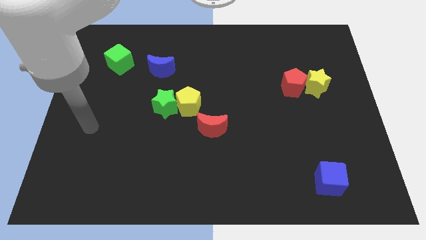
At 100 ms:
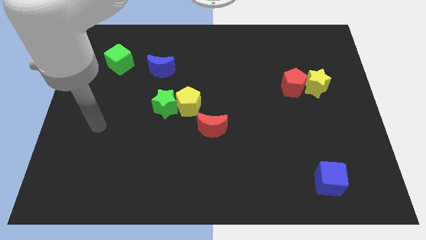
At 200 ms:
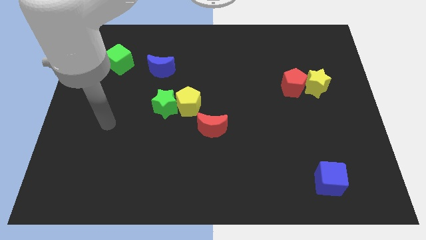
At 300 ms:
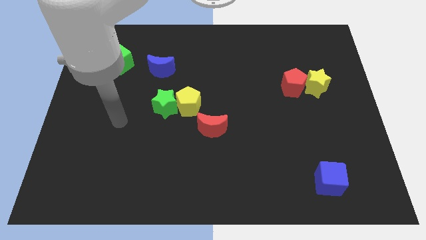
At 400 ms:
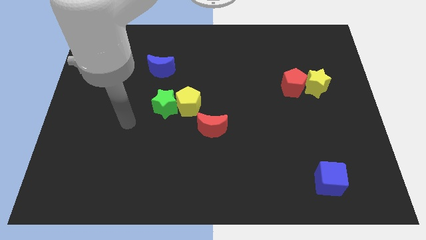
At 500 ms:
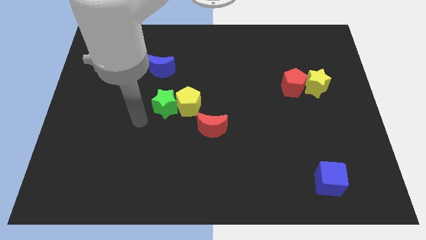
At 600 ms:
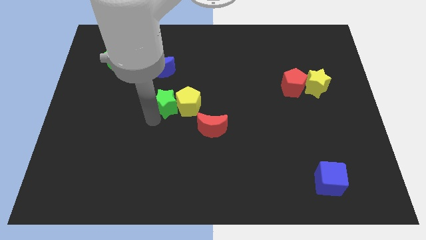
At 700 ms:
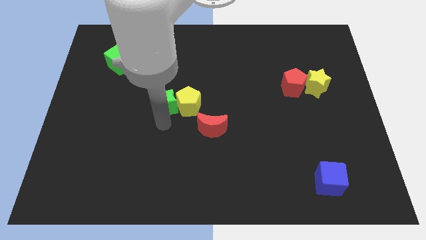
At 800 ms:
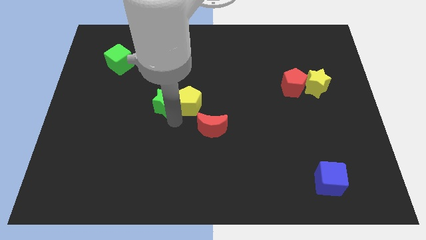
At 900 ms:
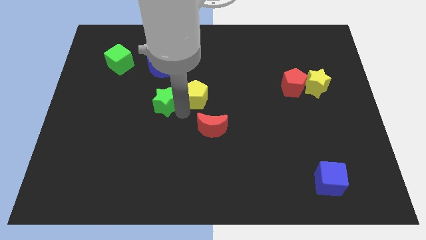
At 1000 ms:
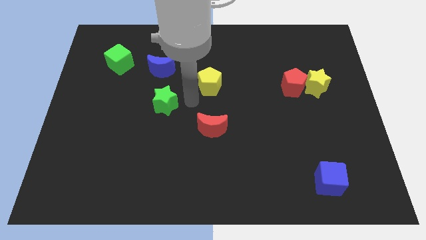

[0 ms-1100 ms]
separate the green star from the yellow pentagon

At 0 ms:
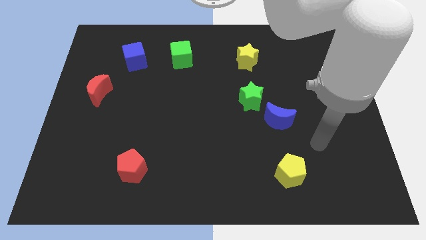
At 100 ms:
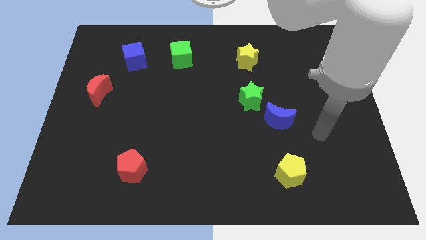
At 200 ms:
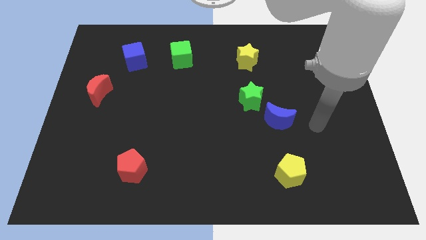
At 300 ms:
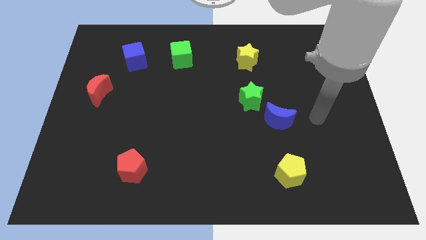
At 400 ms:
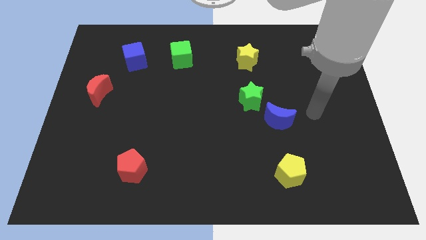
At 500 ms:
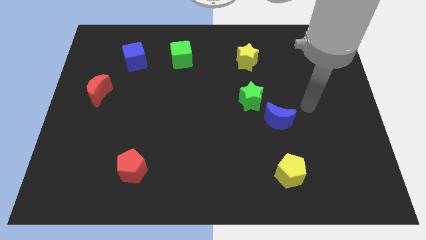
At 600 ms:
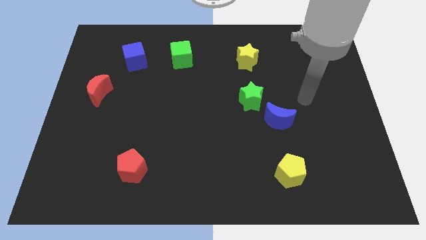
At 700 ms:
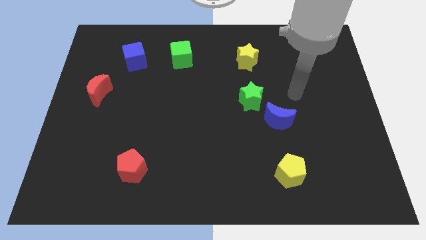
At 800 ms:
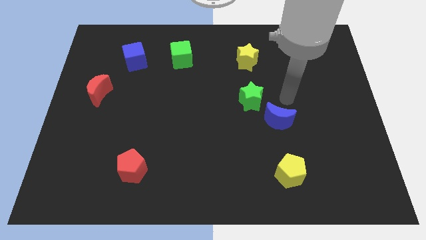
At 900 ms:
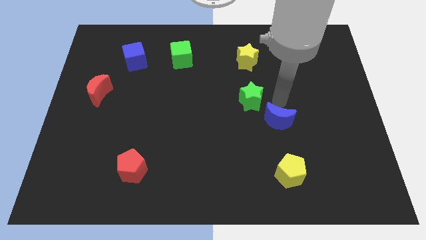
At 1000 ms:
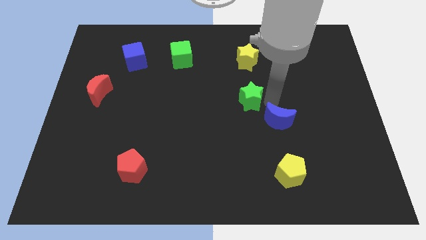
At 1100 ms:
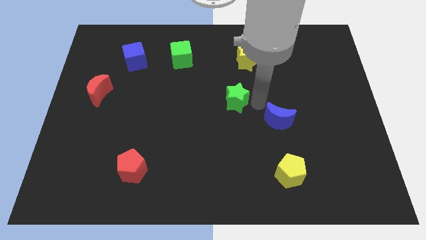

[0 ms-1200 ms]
separate the blue moon from the green star

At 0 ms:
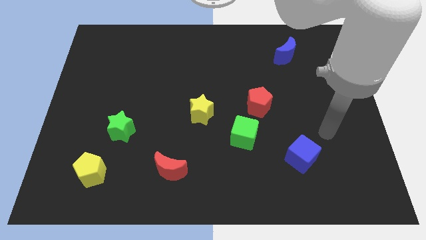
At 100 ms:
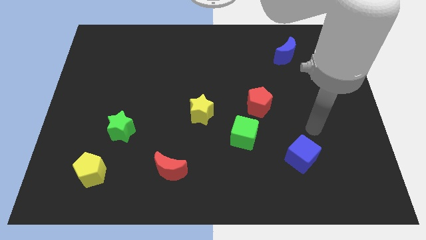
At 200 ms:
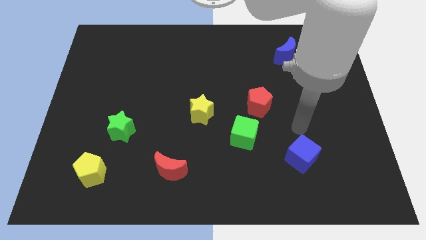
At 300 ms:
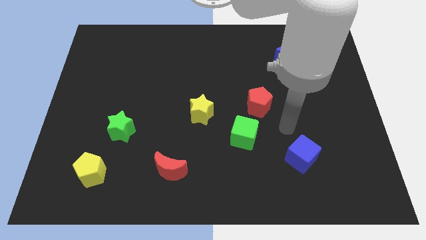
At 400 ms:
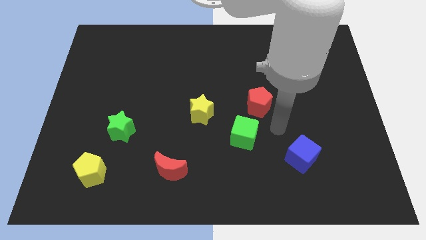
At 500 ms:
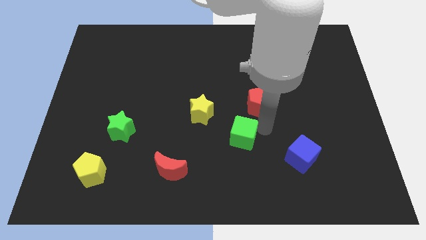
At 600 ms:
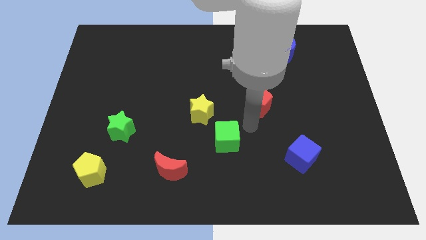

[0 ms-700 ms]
pull the red pentagon apart from the green cube

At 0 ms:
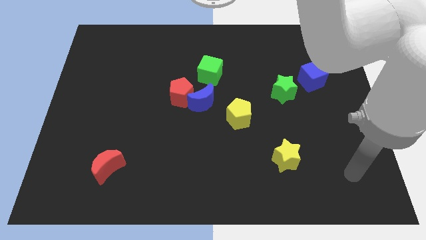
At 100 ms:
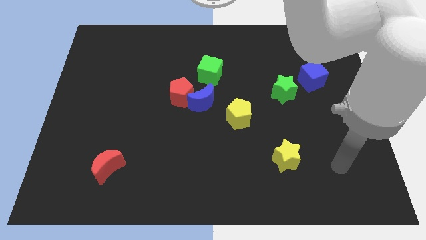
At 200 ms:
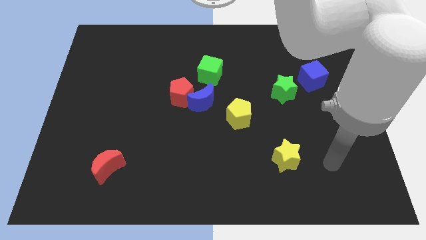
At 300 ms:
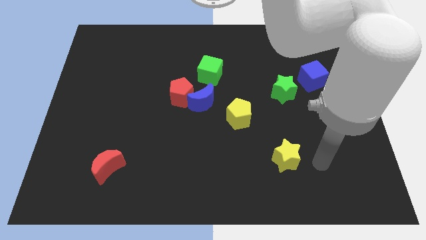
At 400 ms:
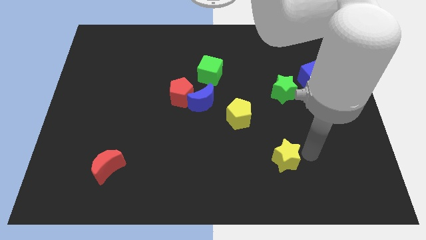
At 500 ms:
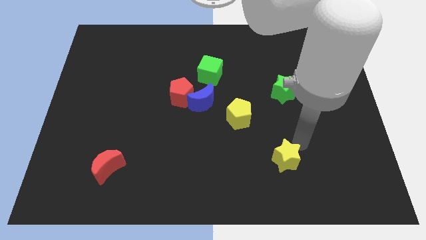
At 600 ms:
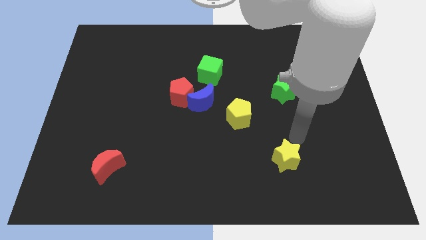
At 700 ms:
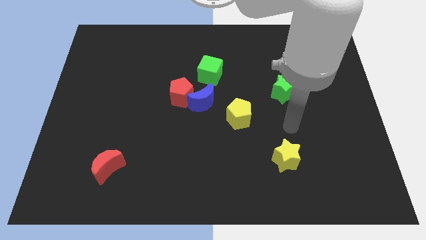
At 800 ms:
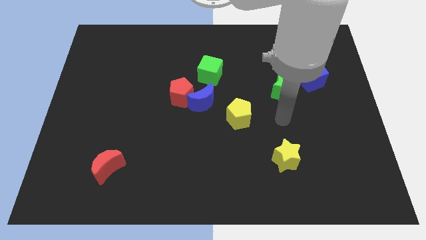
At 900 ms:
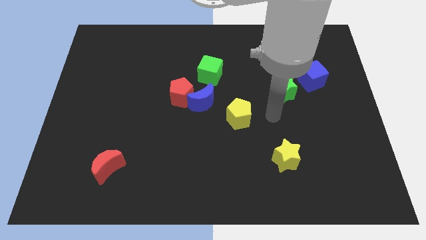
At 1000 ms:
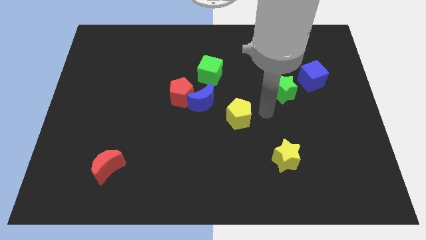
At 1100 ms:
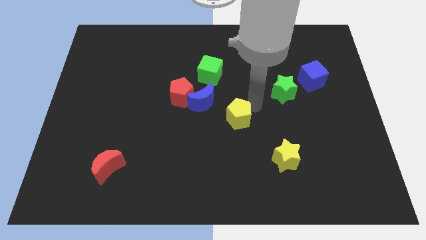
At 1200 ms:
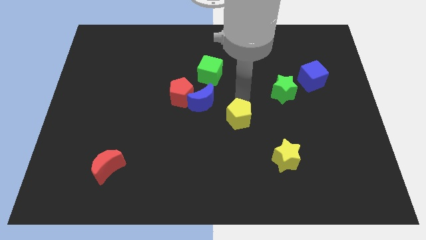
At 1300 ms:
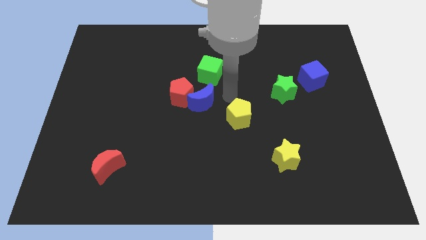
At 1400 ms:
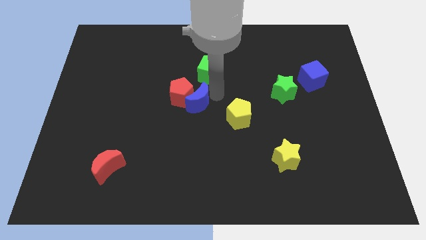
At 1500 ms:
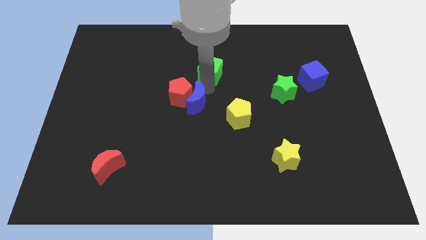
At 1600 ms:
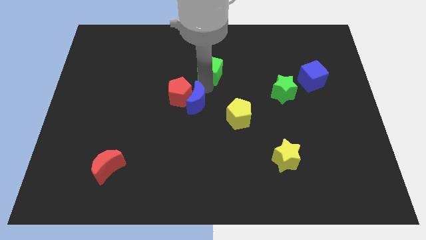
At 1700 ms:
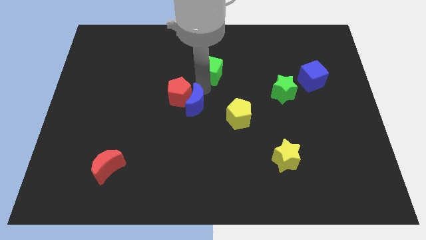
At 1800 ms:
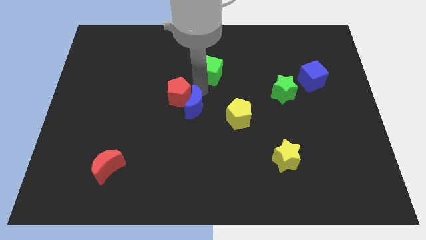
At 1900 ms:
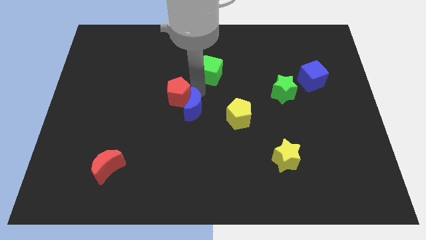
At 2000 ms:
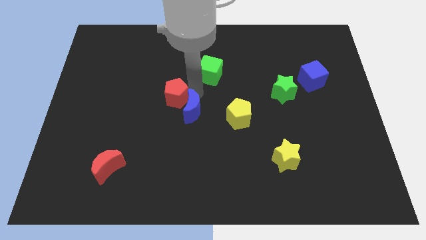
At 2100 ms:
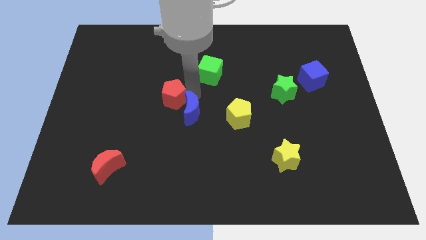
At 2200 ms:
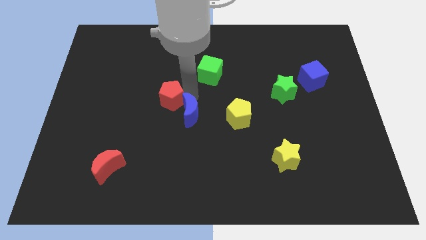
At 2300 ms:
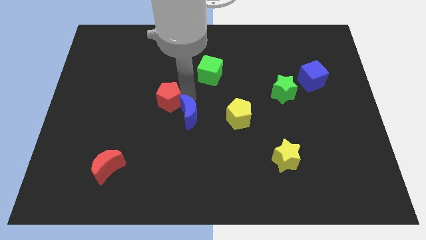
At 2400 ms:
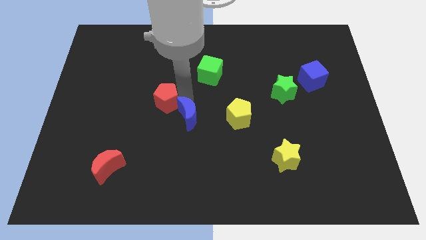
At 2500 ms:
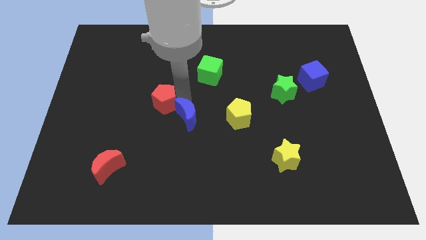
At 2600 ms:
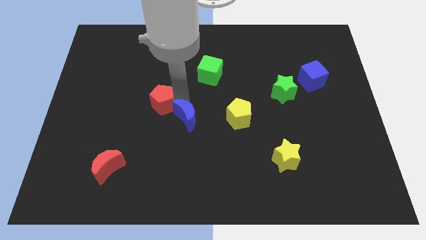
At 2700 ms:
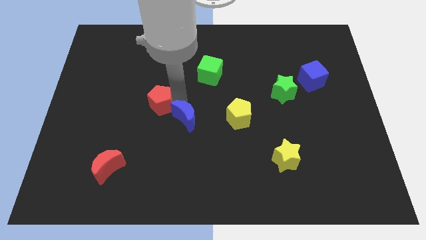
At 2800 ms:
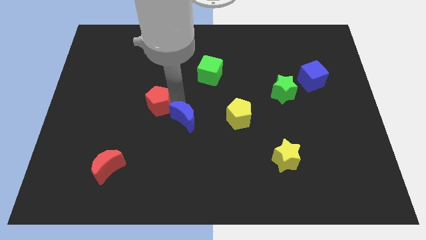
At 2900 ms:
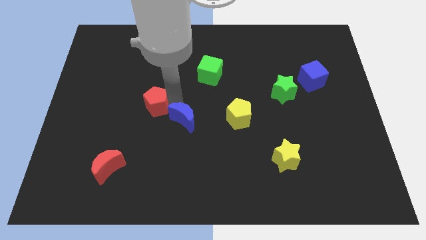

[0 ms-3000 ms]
pull the red pentagon apart from the blue moon and green cube

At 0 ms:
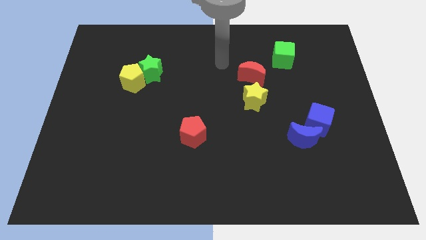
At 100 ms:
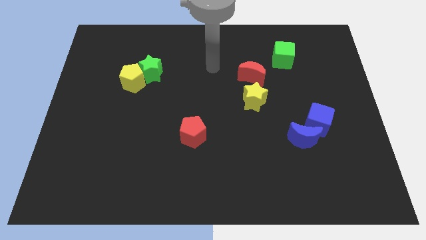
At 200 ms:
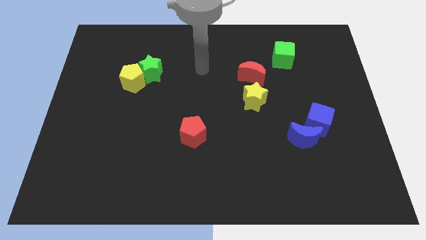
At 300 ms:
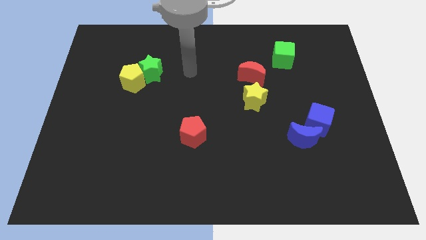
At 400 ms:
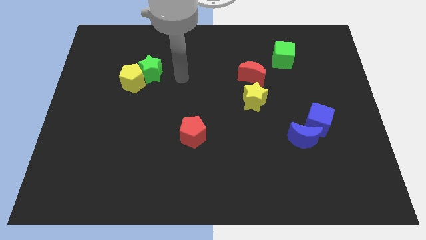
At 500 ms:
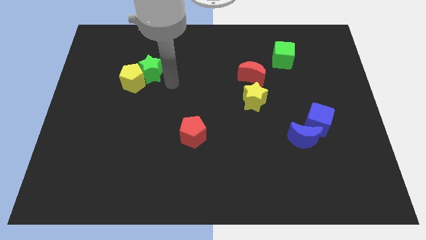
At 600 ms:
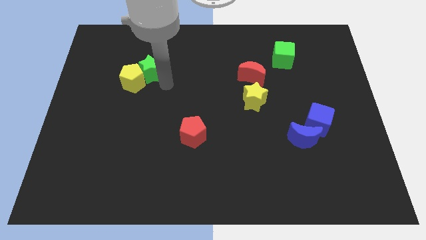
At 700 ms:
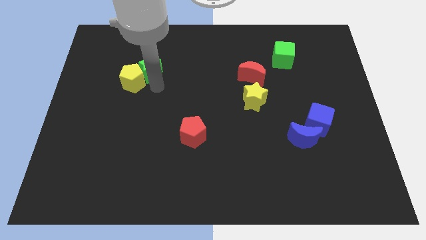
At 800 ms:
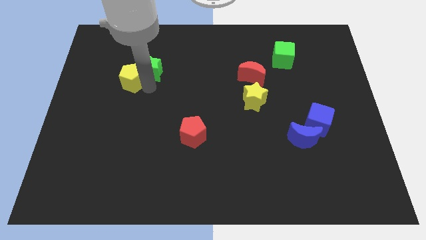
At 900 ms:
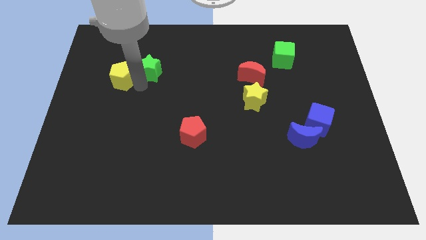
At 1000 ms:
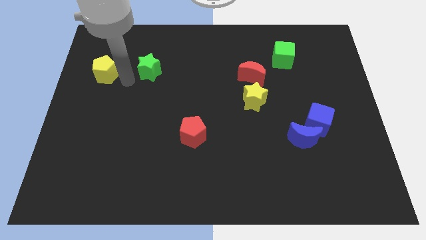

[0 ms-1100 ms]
move the green star away from the yellow pentagon

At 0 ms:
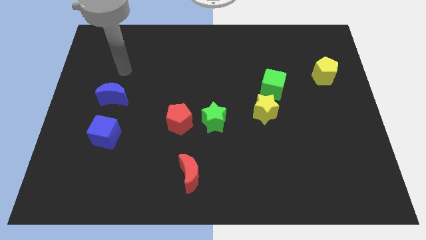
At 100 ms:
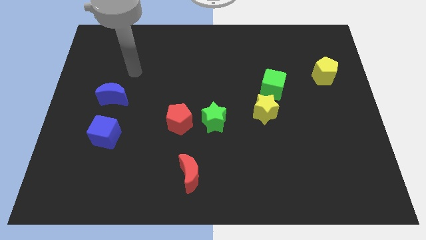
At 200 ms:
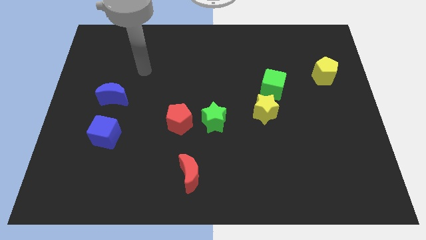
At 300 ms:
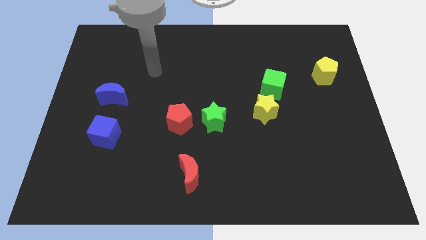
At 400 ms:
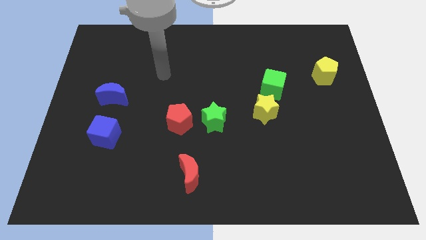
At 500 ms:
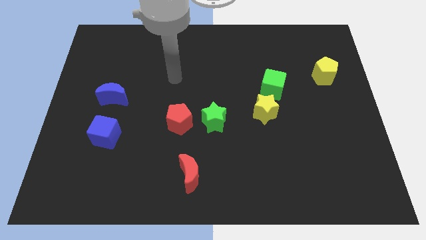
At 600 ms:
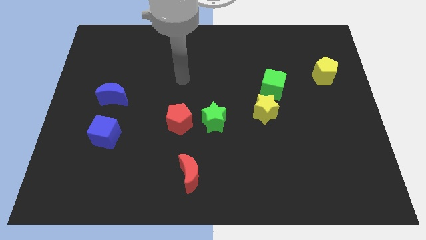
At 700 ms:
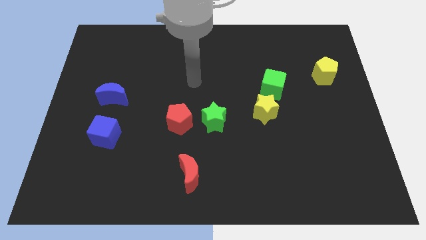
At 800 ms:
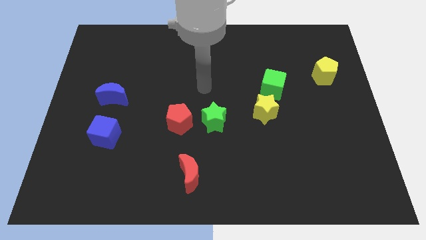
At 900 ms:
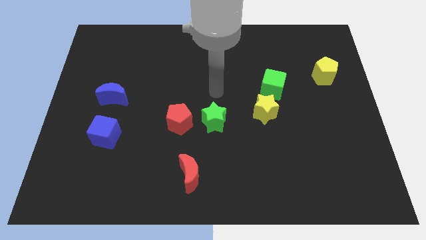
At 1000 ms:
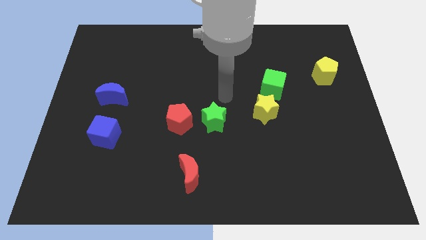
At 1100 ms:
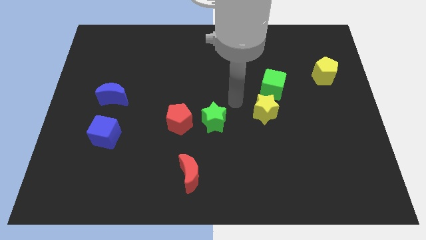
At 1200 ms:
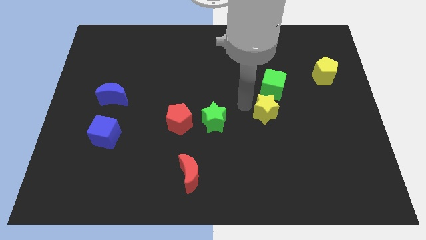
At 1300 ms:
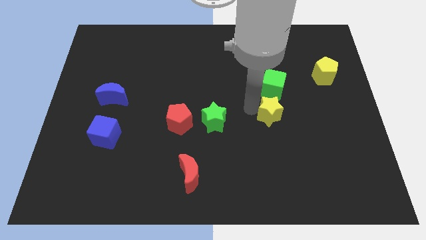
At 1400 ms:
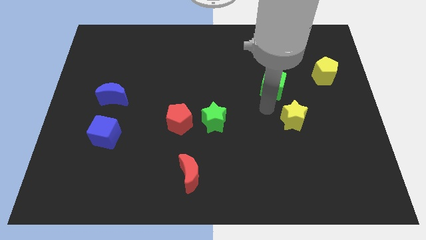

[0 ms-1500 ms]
move the green cube away from the yellow star

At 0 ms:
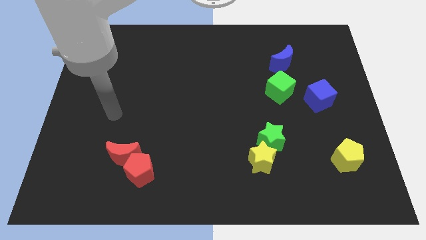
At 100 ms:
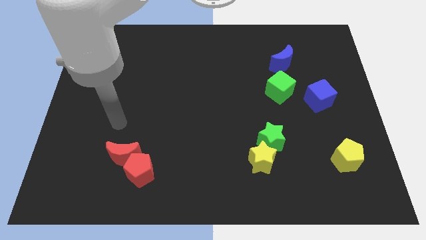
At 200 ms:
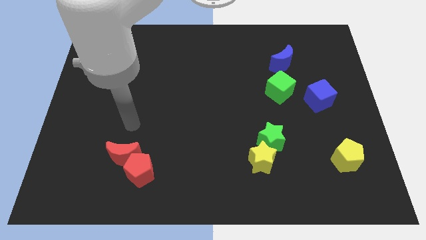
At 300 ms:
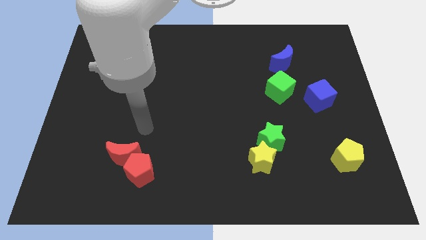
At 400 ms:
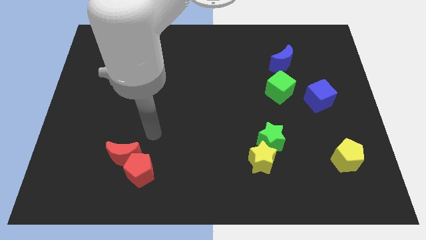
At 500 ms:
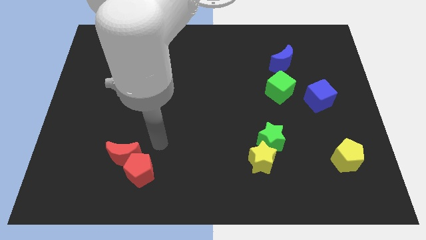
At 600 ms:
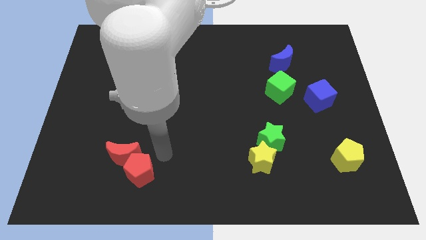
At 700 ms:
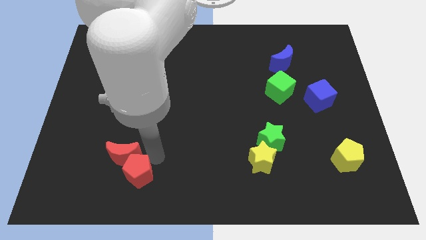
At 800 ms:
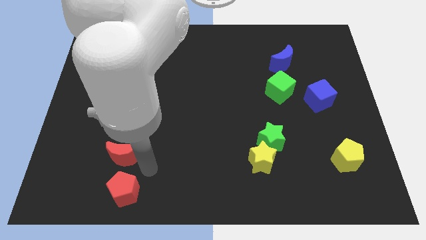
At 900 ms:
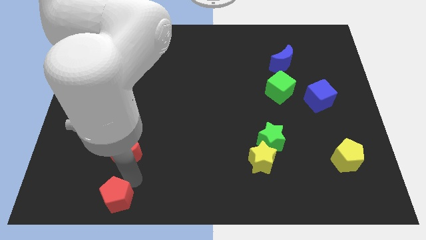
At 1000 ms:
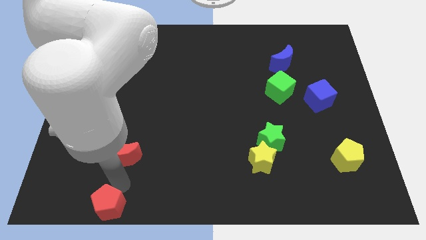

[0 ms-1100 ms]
move the red moon away from the red pentagon
